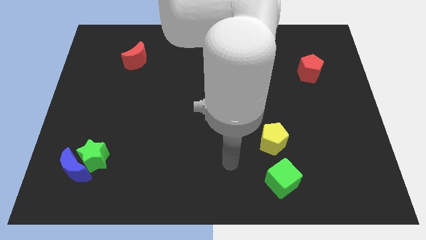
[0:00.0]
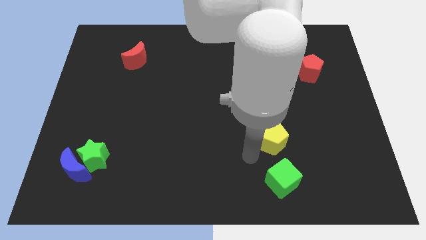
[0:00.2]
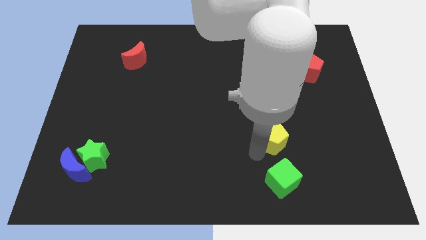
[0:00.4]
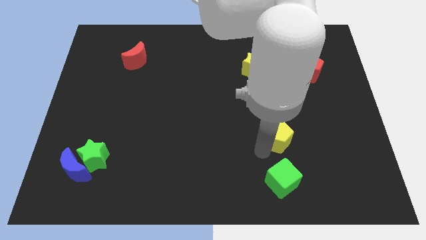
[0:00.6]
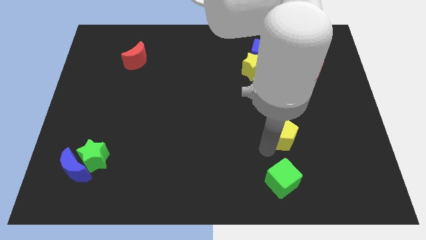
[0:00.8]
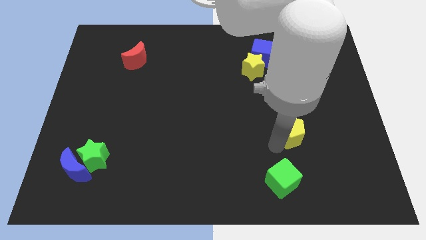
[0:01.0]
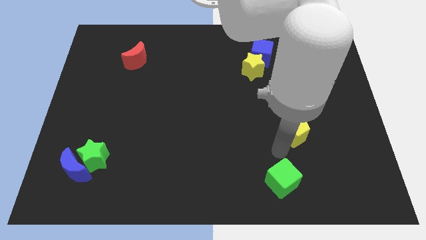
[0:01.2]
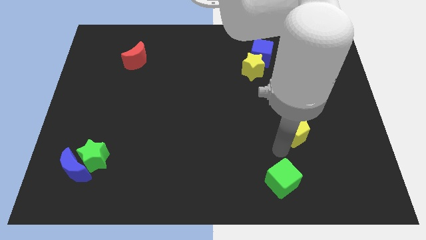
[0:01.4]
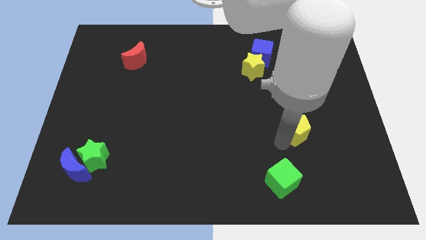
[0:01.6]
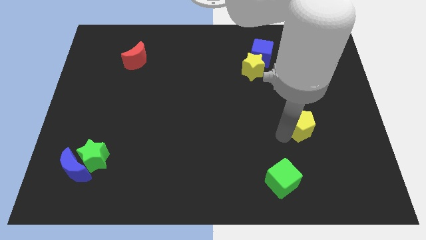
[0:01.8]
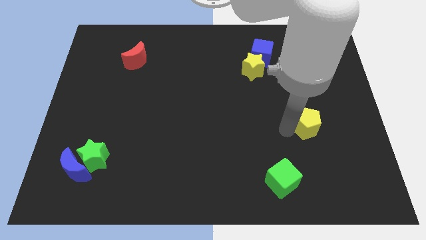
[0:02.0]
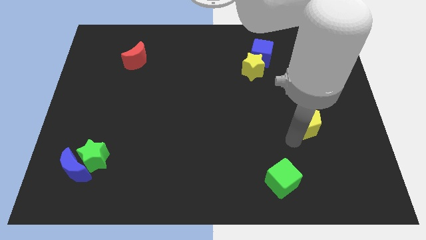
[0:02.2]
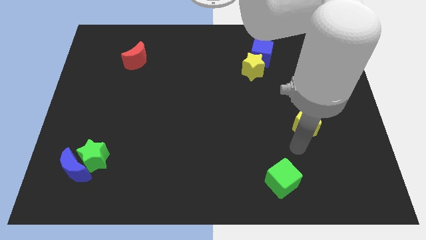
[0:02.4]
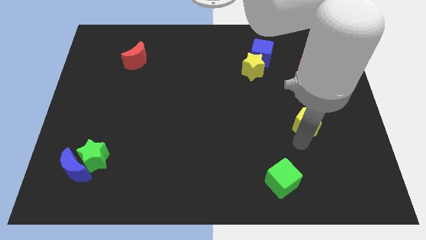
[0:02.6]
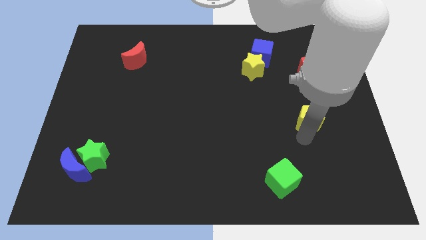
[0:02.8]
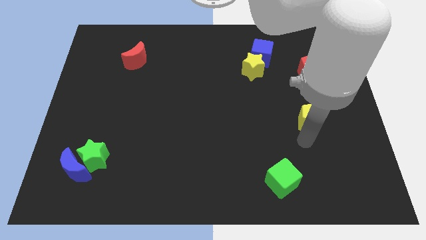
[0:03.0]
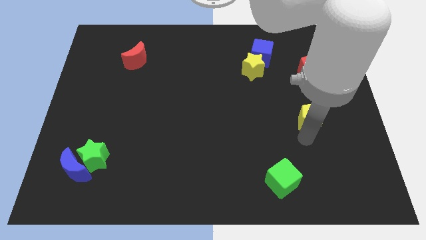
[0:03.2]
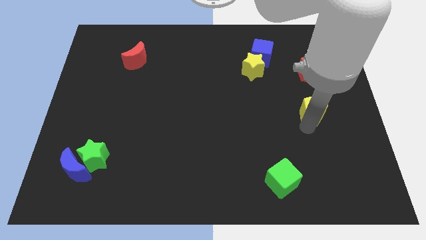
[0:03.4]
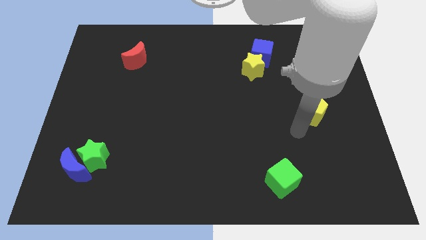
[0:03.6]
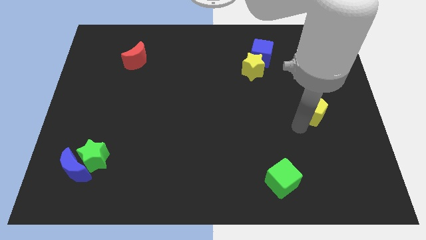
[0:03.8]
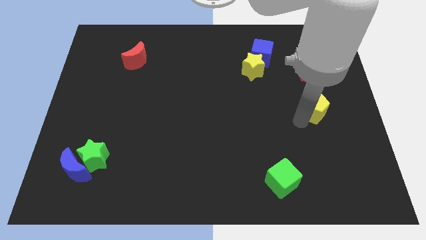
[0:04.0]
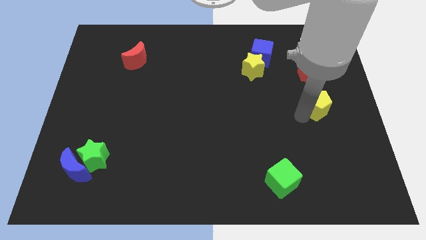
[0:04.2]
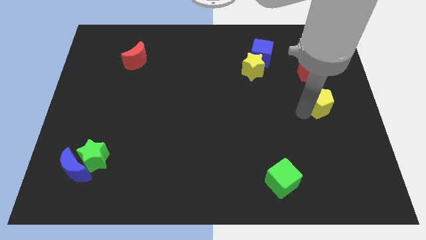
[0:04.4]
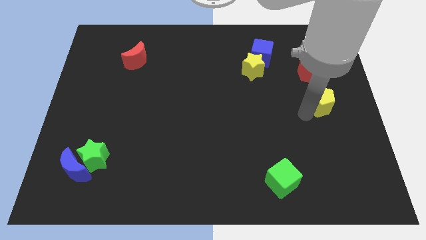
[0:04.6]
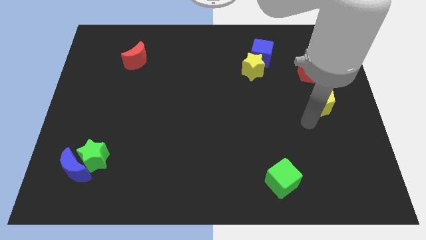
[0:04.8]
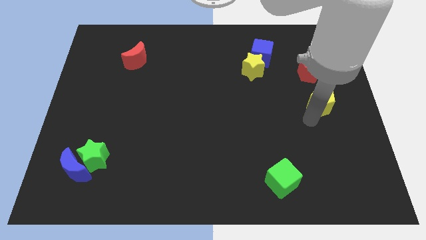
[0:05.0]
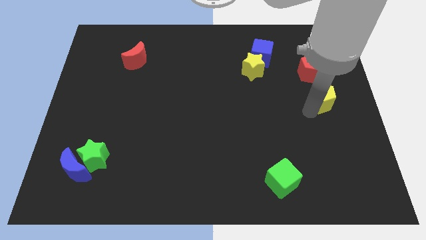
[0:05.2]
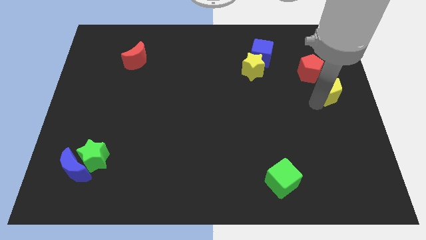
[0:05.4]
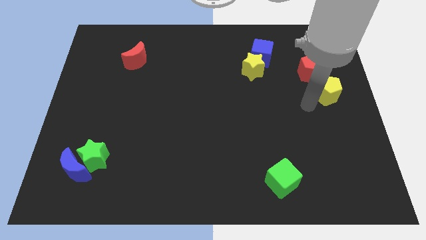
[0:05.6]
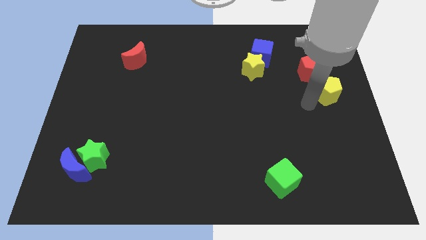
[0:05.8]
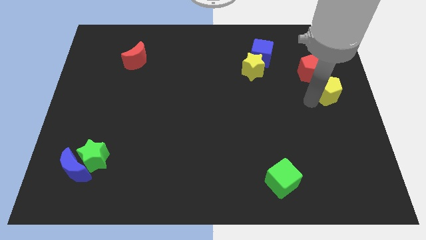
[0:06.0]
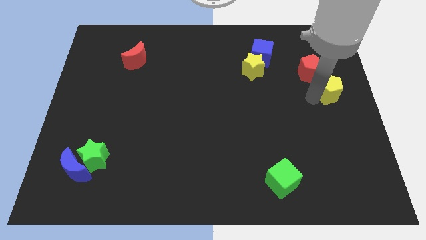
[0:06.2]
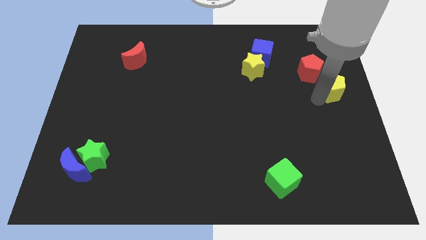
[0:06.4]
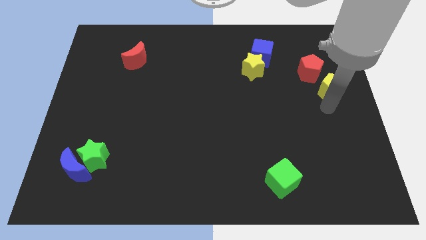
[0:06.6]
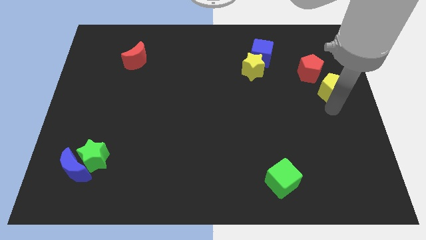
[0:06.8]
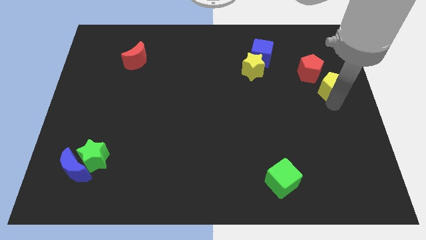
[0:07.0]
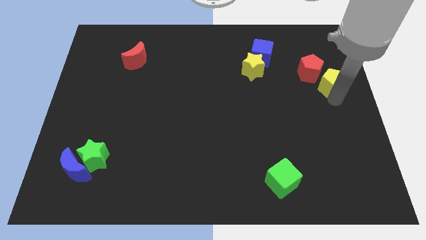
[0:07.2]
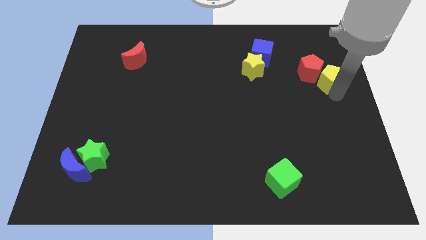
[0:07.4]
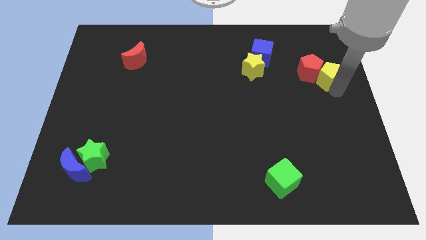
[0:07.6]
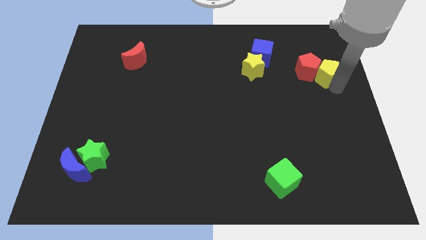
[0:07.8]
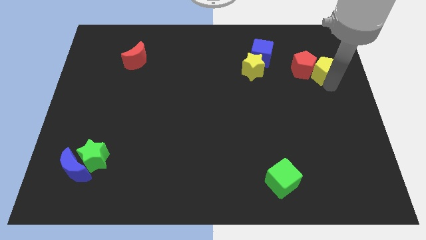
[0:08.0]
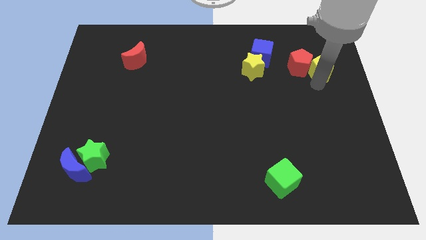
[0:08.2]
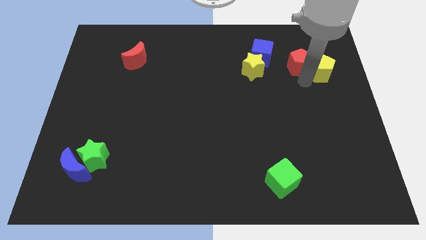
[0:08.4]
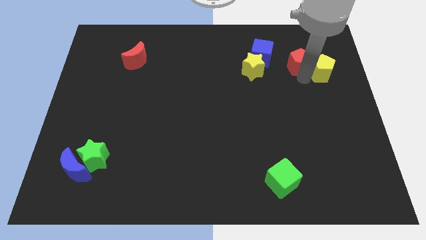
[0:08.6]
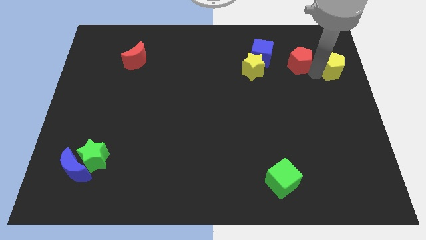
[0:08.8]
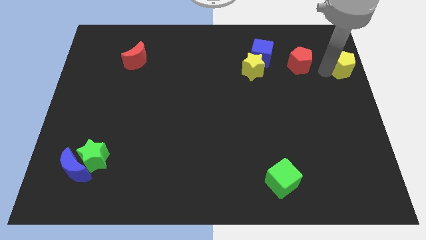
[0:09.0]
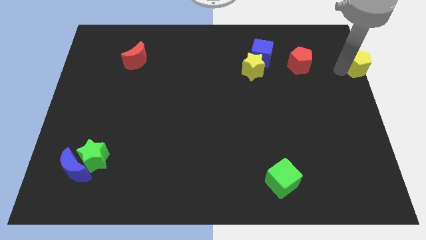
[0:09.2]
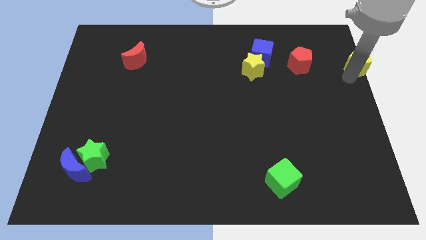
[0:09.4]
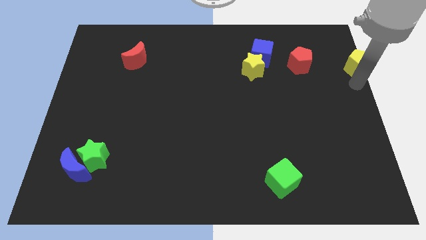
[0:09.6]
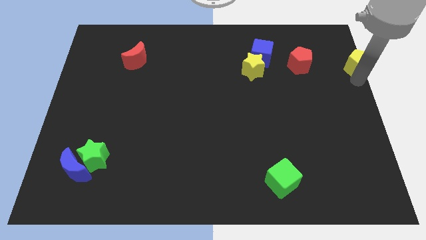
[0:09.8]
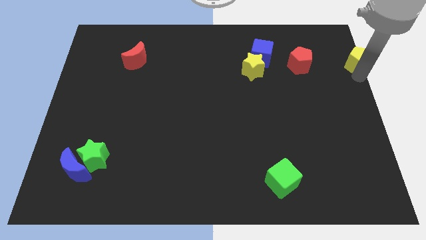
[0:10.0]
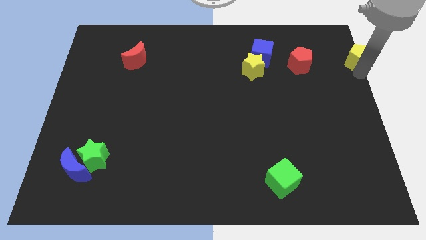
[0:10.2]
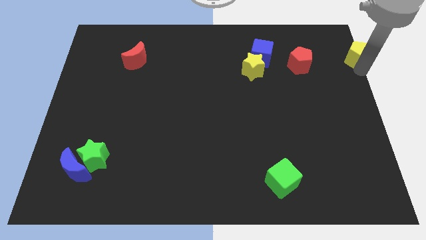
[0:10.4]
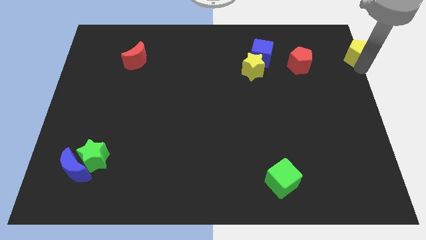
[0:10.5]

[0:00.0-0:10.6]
move the yellow pentagon to the top right corner

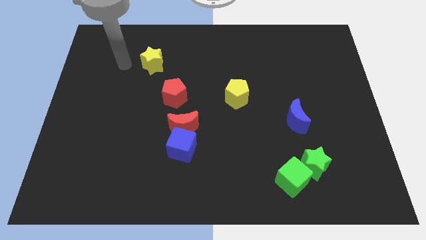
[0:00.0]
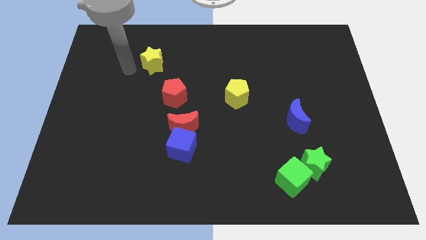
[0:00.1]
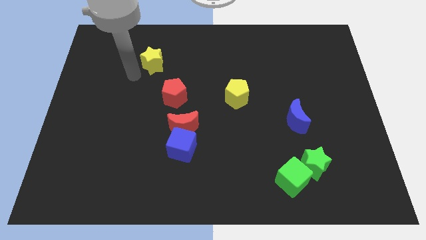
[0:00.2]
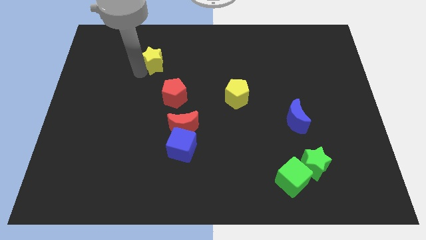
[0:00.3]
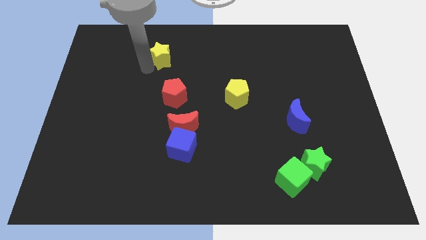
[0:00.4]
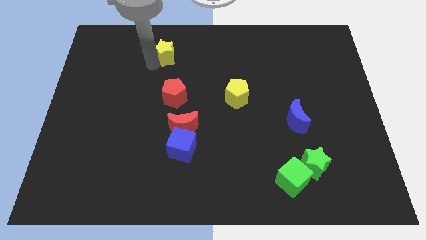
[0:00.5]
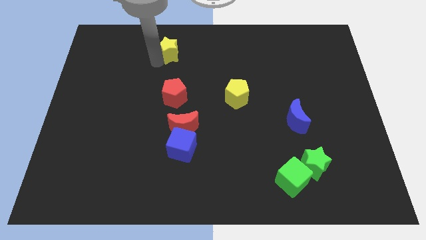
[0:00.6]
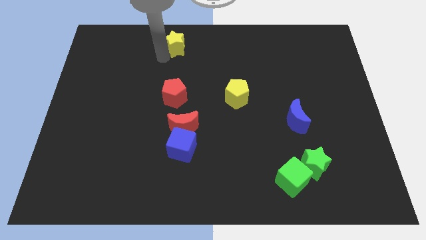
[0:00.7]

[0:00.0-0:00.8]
push the yellow star to the top side

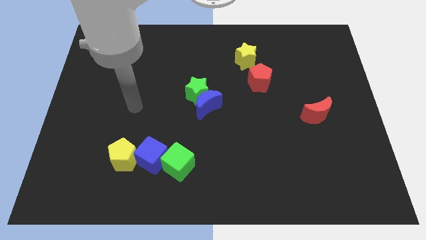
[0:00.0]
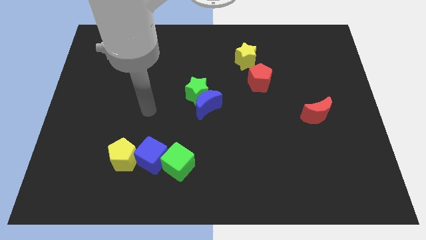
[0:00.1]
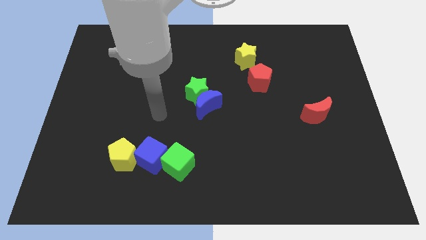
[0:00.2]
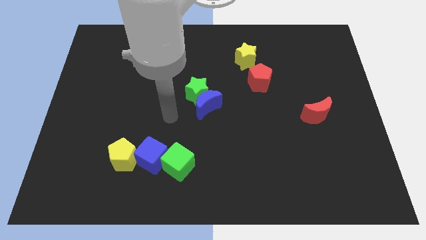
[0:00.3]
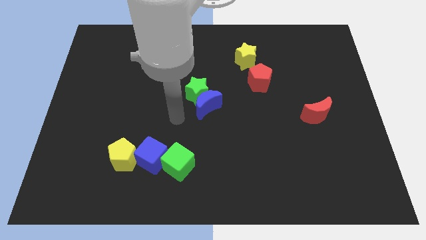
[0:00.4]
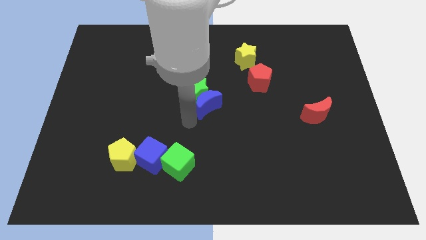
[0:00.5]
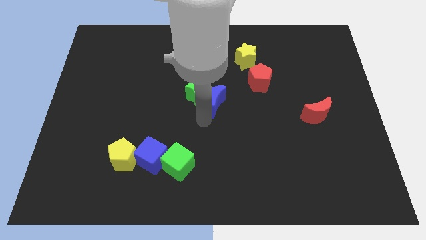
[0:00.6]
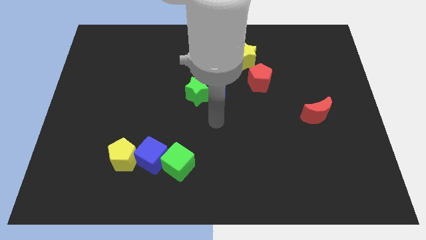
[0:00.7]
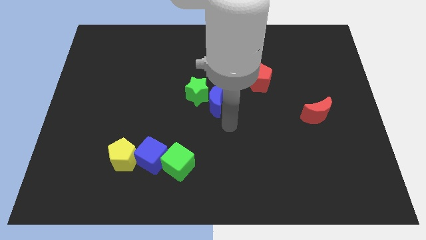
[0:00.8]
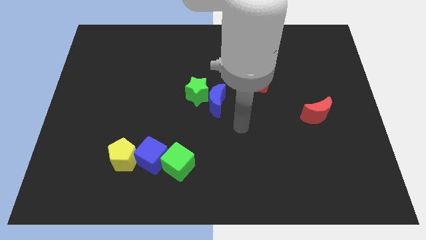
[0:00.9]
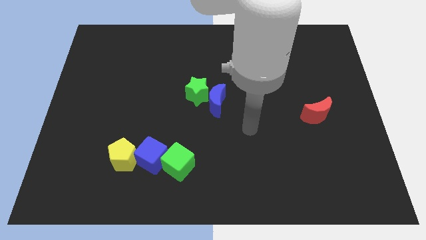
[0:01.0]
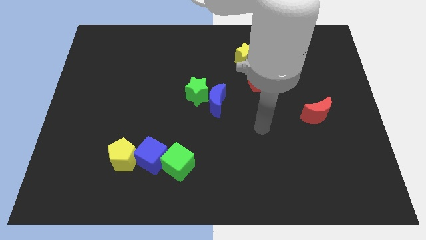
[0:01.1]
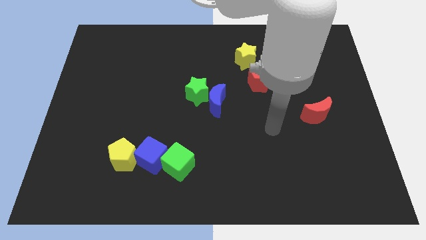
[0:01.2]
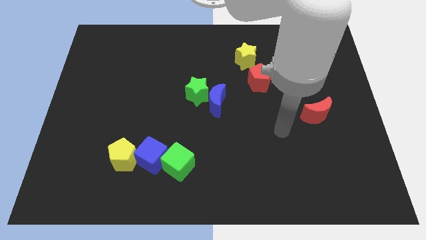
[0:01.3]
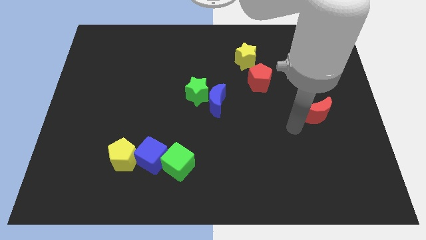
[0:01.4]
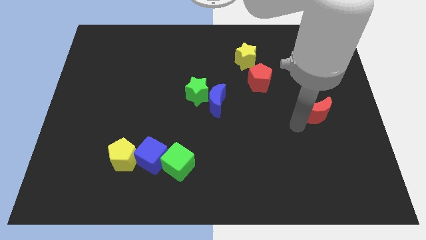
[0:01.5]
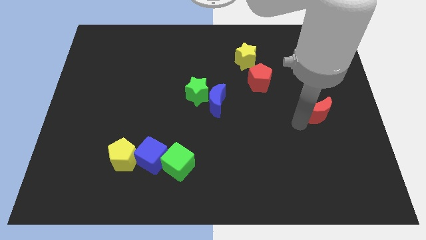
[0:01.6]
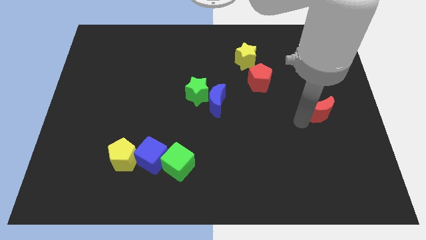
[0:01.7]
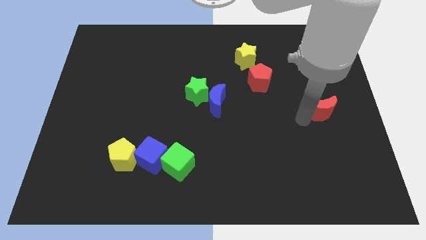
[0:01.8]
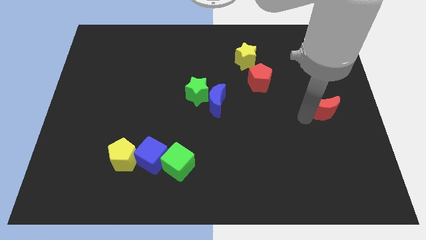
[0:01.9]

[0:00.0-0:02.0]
slide the red moon to the right side of the board
